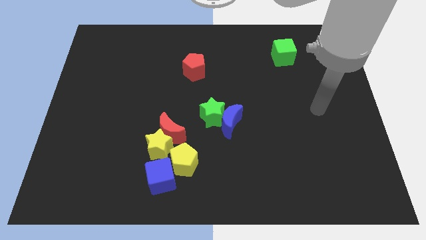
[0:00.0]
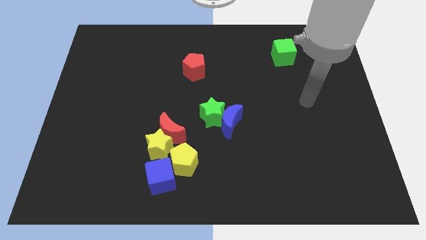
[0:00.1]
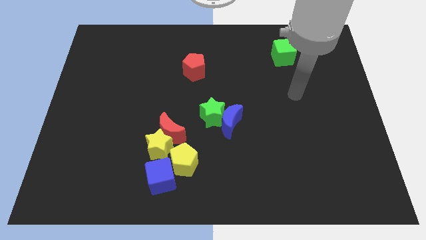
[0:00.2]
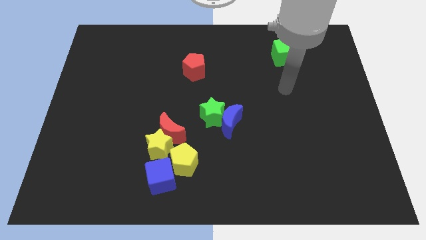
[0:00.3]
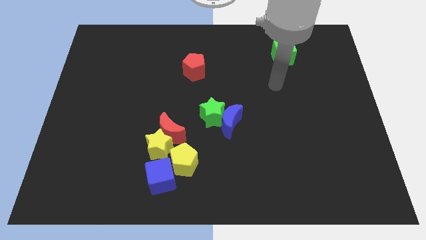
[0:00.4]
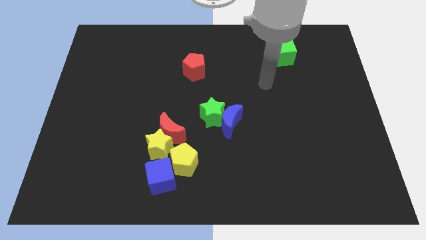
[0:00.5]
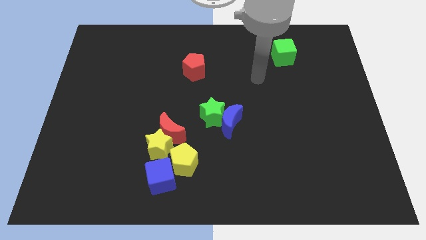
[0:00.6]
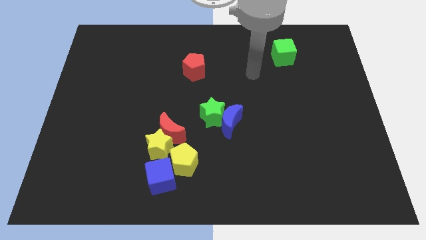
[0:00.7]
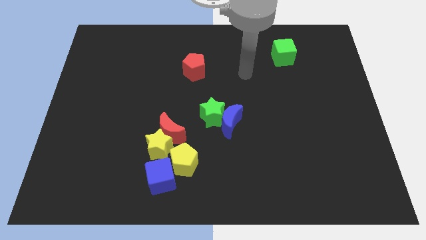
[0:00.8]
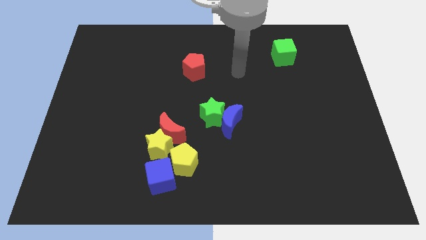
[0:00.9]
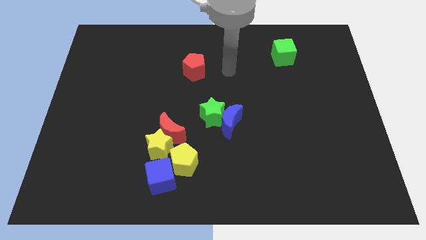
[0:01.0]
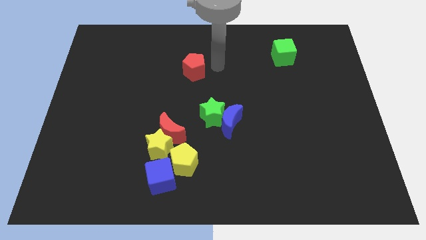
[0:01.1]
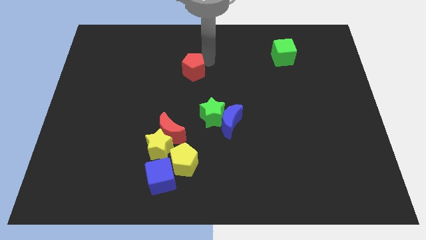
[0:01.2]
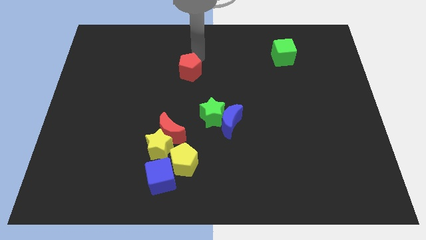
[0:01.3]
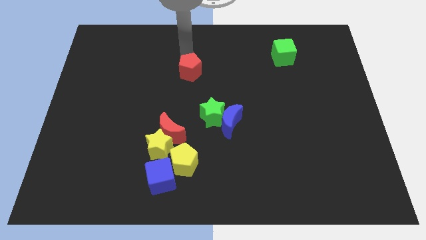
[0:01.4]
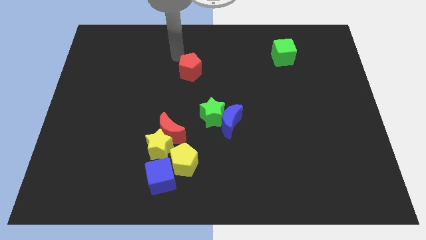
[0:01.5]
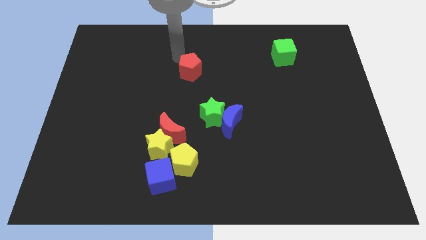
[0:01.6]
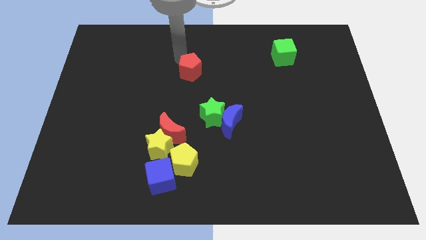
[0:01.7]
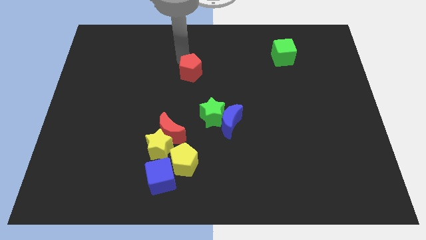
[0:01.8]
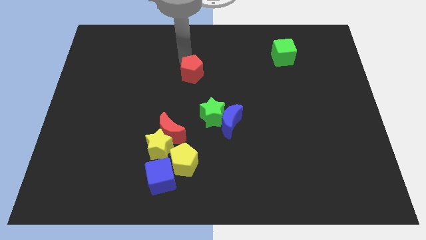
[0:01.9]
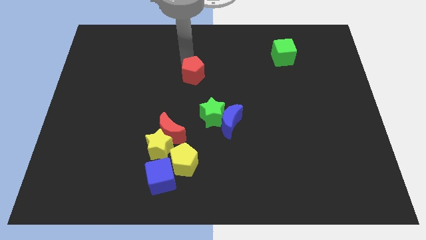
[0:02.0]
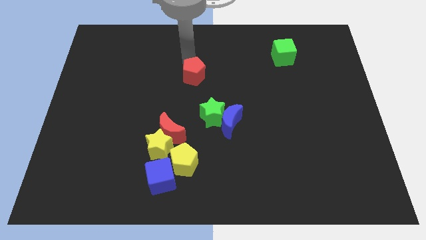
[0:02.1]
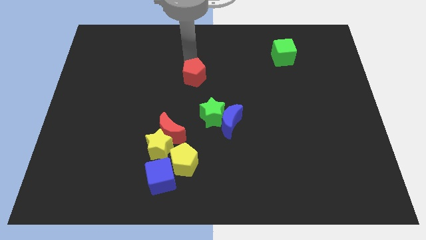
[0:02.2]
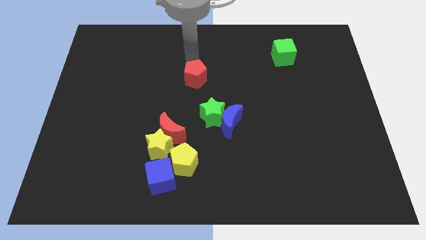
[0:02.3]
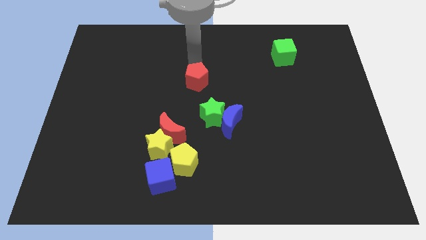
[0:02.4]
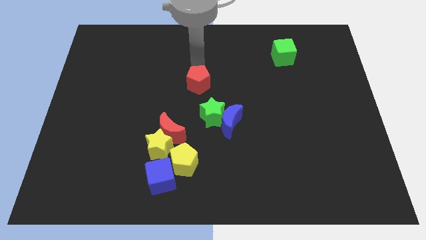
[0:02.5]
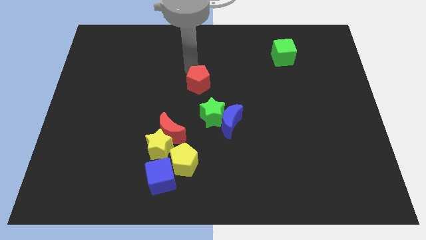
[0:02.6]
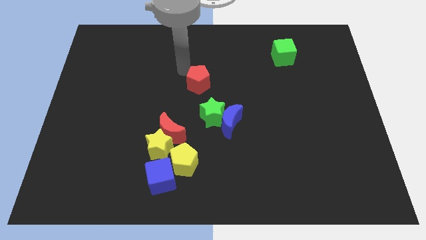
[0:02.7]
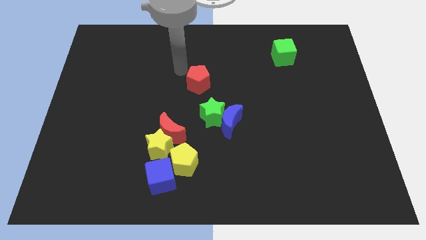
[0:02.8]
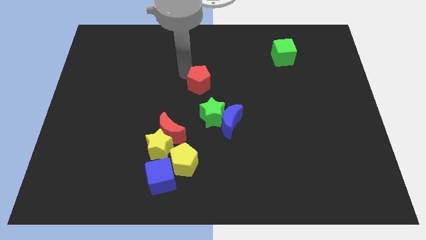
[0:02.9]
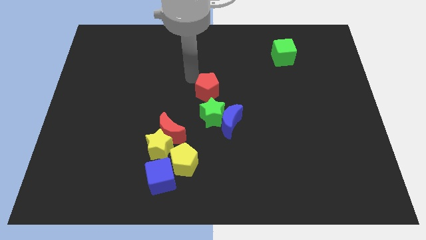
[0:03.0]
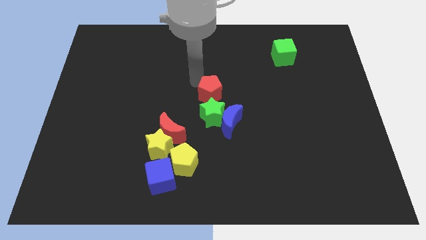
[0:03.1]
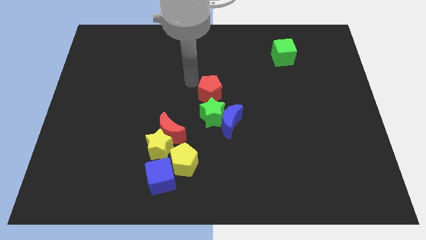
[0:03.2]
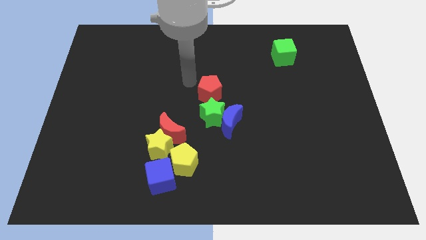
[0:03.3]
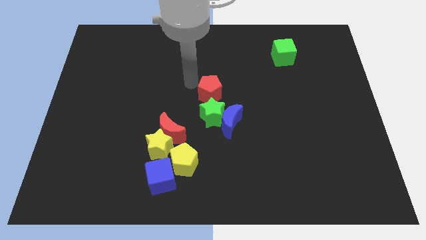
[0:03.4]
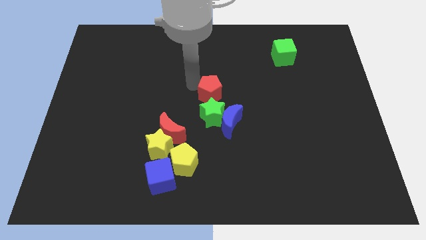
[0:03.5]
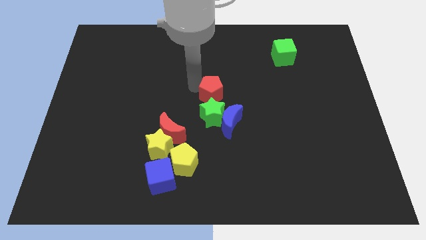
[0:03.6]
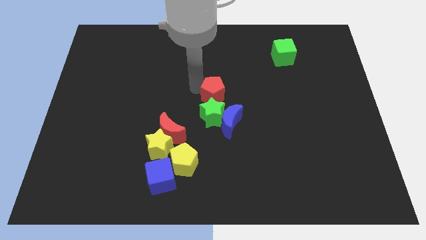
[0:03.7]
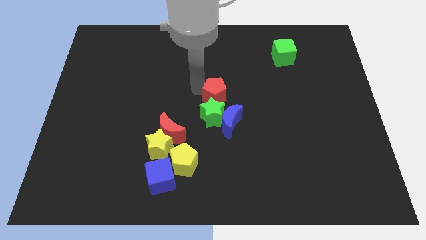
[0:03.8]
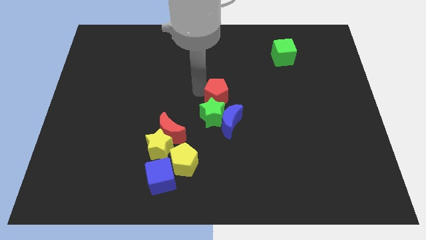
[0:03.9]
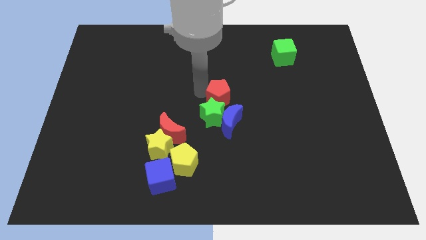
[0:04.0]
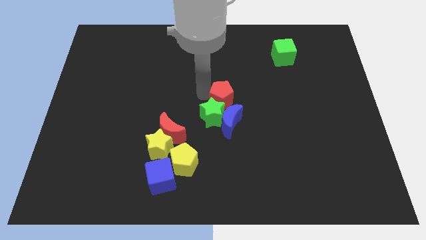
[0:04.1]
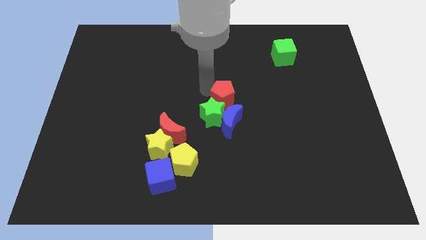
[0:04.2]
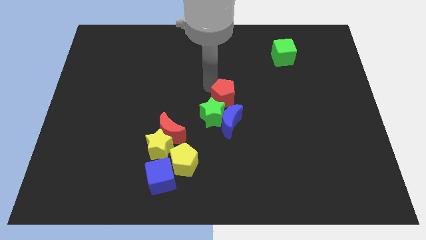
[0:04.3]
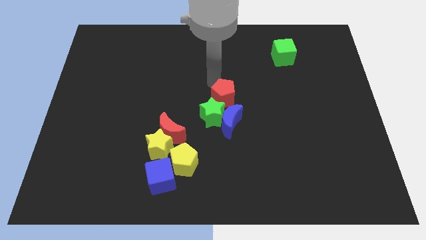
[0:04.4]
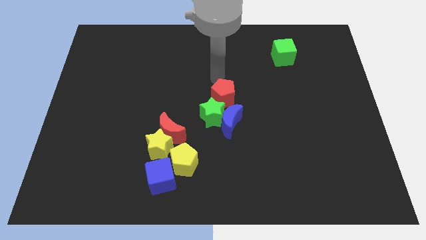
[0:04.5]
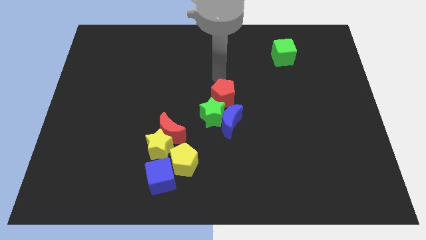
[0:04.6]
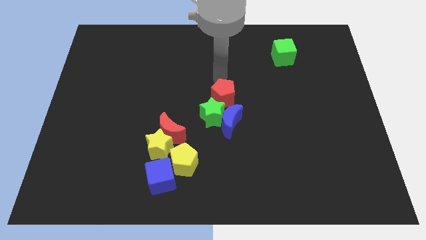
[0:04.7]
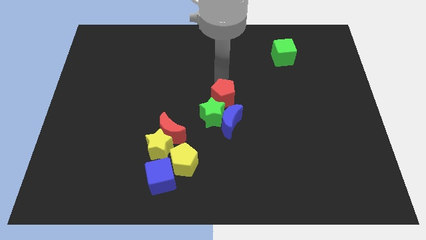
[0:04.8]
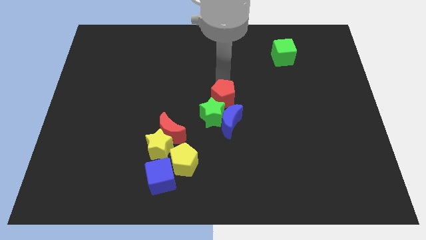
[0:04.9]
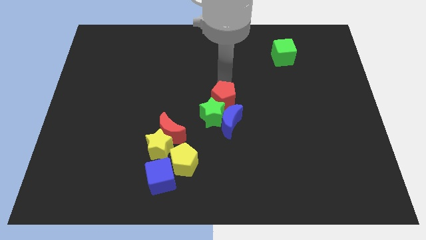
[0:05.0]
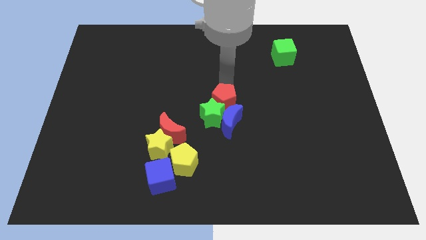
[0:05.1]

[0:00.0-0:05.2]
push the red pentagon to the blue moon

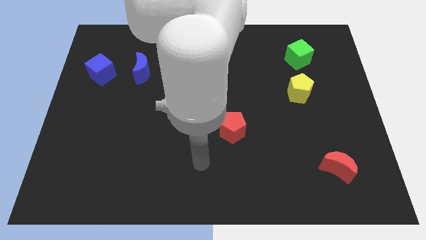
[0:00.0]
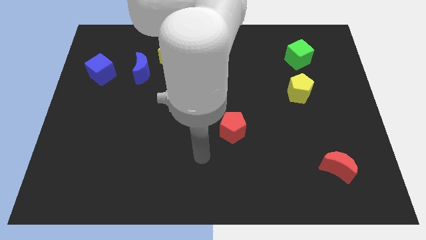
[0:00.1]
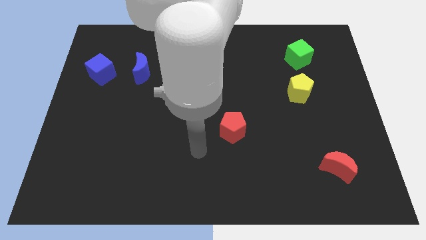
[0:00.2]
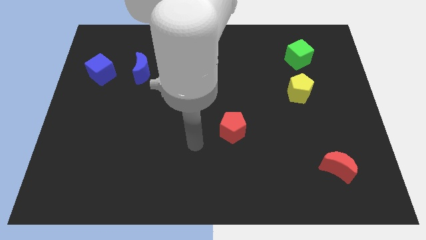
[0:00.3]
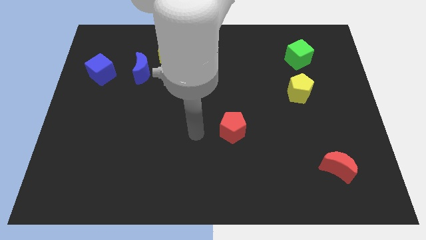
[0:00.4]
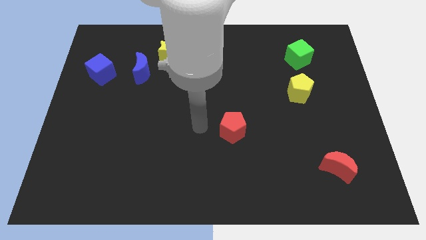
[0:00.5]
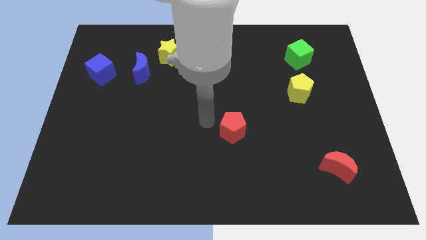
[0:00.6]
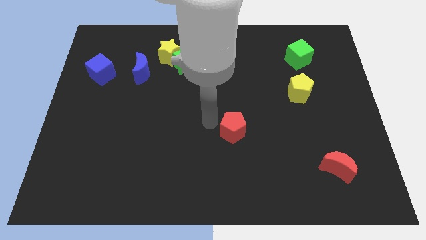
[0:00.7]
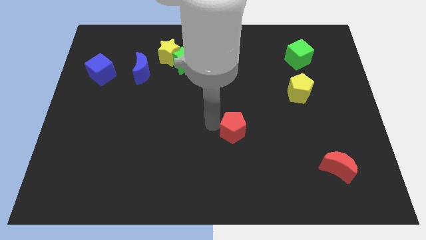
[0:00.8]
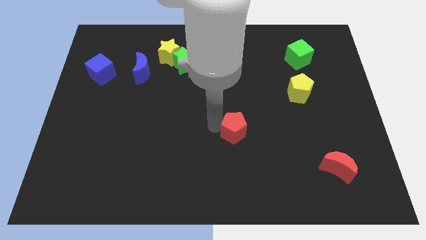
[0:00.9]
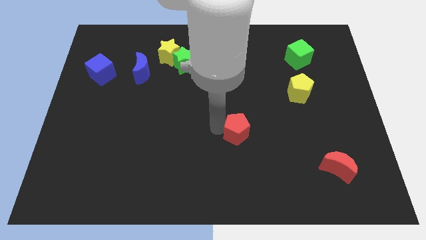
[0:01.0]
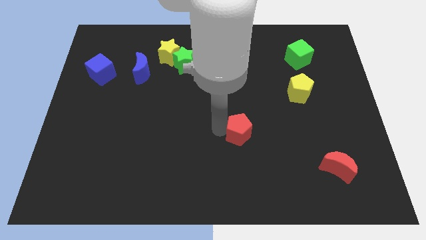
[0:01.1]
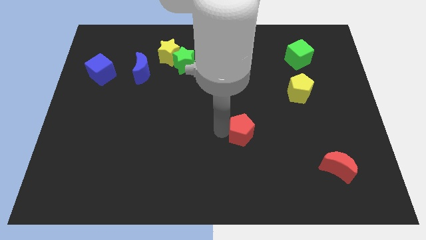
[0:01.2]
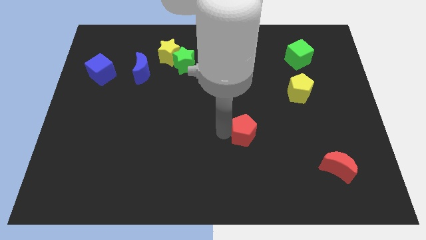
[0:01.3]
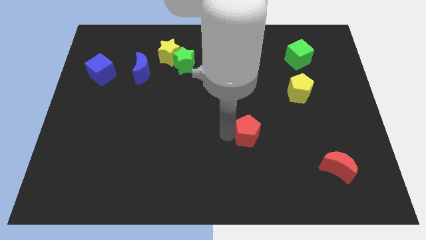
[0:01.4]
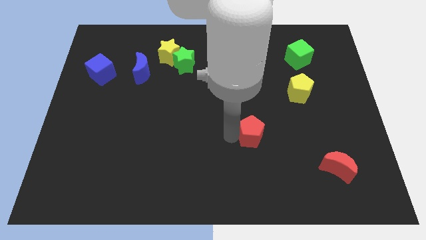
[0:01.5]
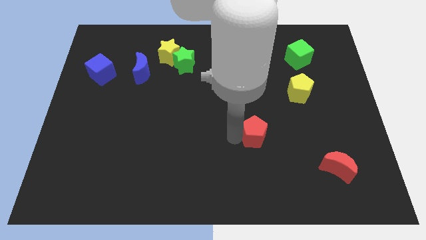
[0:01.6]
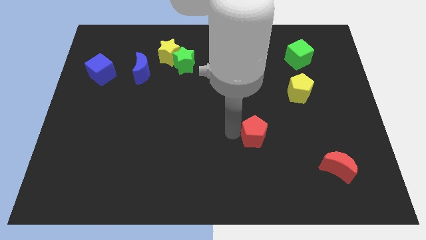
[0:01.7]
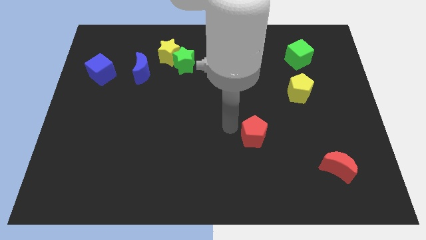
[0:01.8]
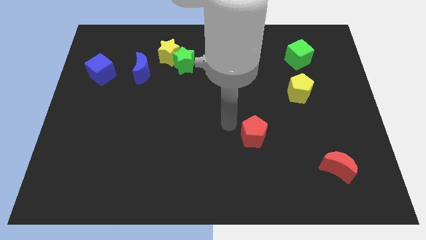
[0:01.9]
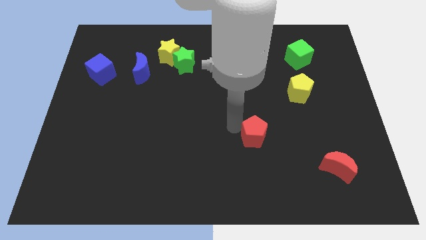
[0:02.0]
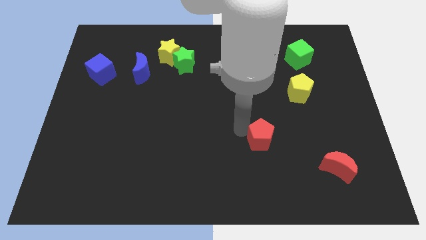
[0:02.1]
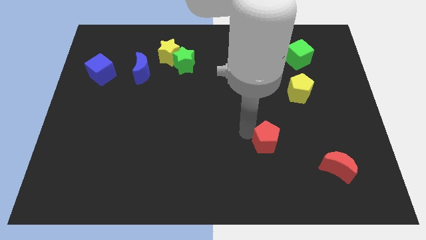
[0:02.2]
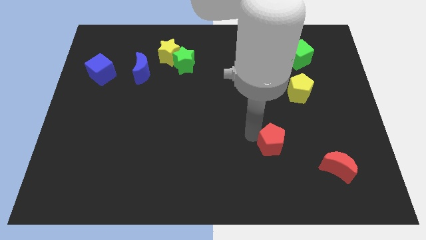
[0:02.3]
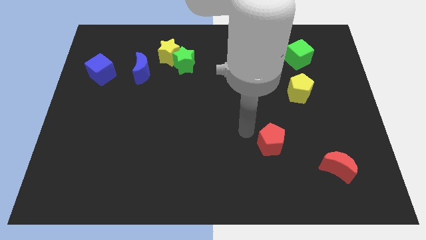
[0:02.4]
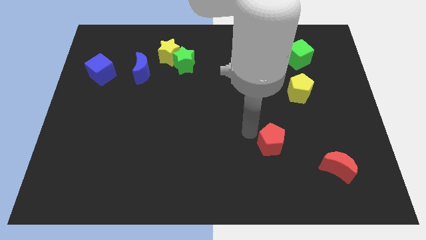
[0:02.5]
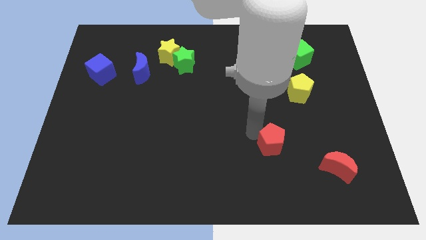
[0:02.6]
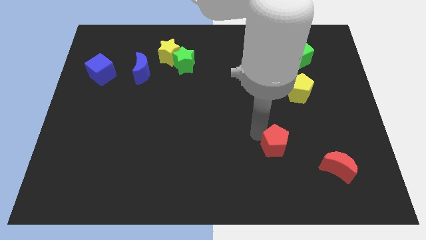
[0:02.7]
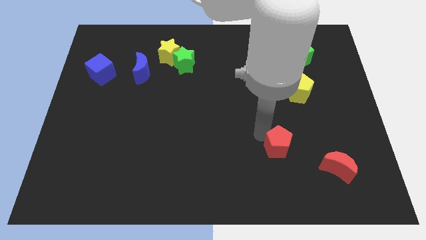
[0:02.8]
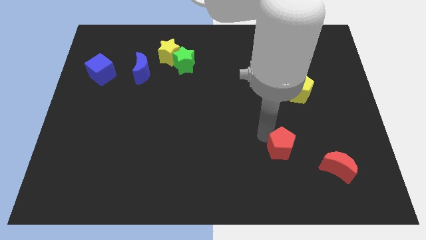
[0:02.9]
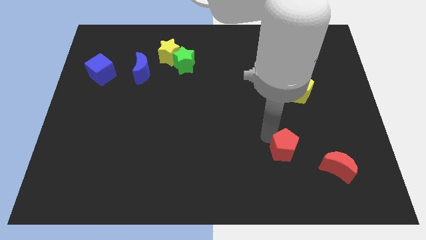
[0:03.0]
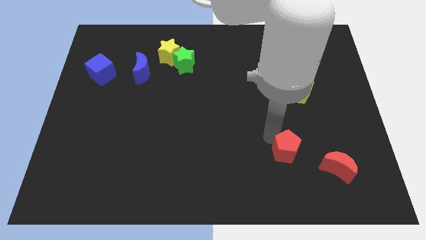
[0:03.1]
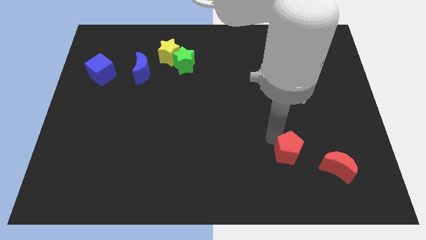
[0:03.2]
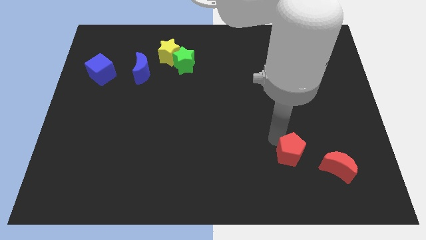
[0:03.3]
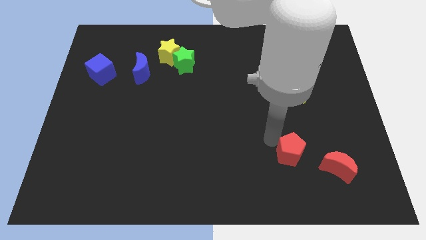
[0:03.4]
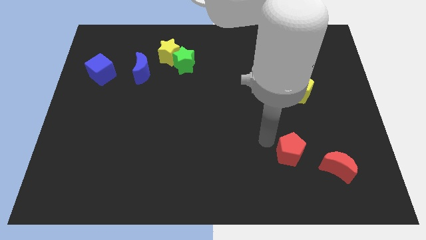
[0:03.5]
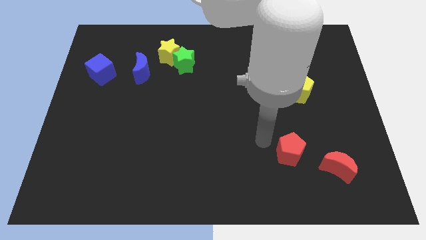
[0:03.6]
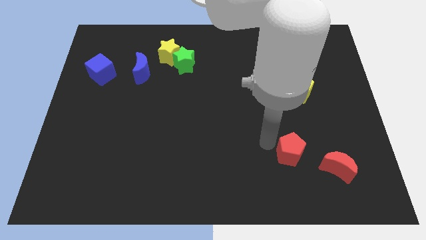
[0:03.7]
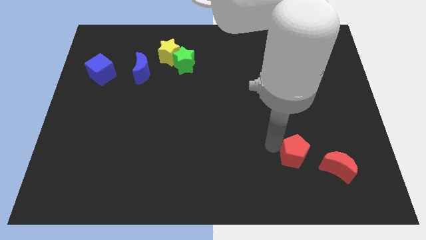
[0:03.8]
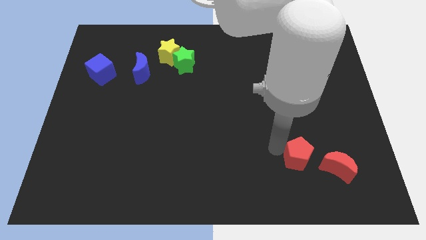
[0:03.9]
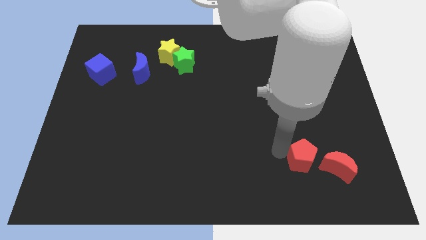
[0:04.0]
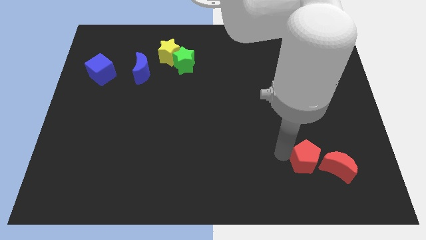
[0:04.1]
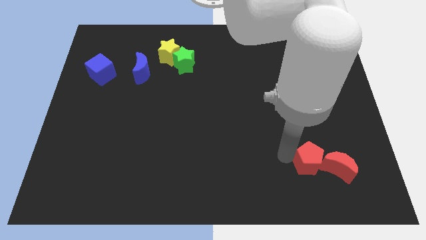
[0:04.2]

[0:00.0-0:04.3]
move the red pentagon close to the red moon
